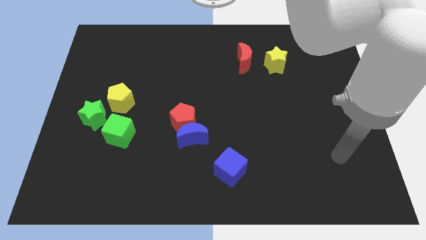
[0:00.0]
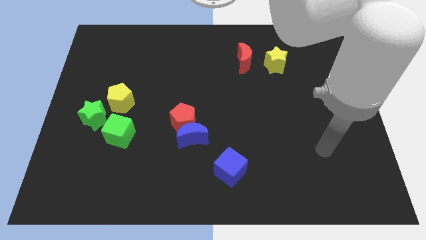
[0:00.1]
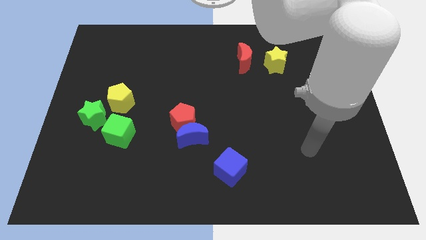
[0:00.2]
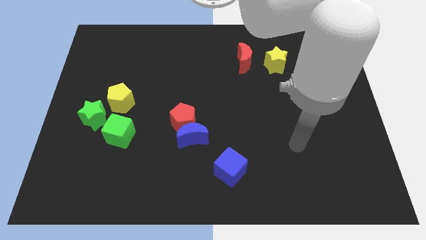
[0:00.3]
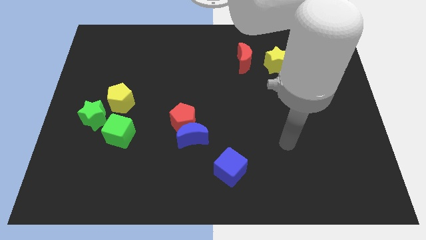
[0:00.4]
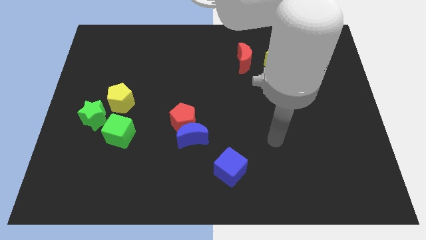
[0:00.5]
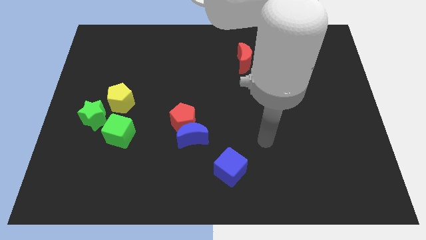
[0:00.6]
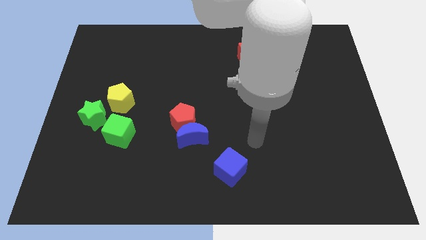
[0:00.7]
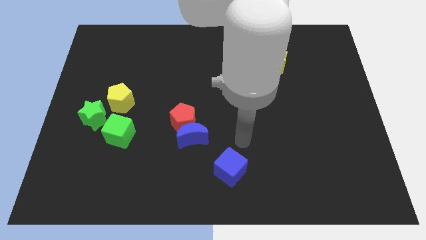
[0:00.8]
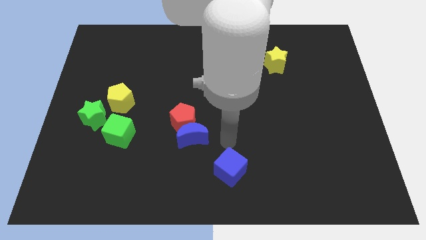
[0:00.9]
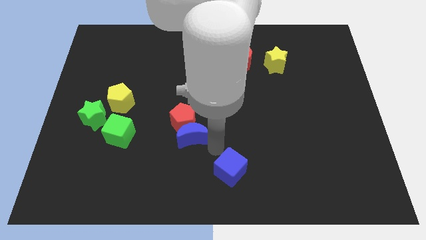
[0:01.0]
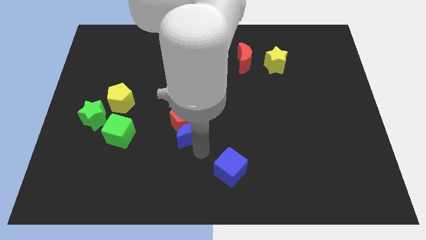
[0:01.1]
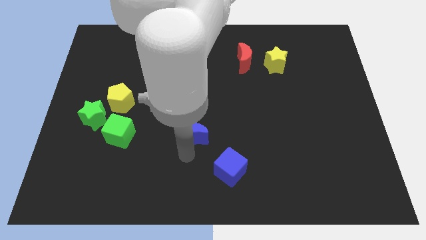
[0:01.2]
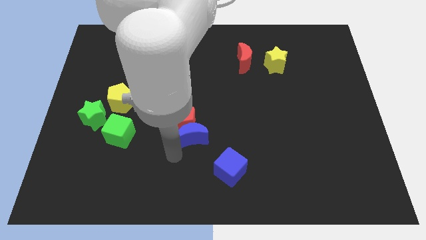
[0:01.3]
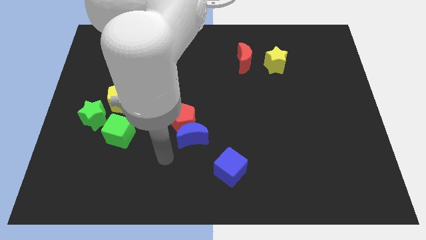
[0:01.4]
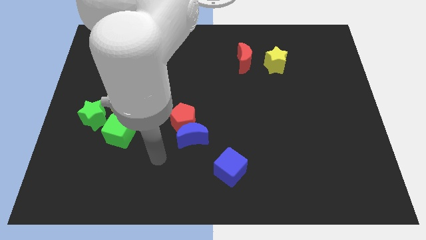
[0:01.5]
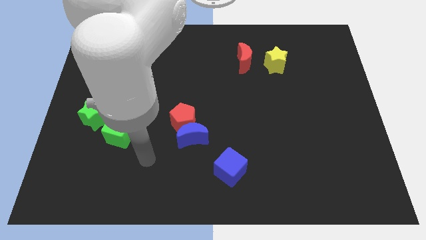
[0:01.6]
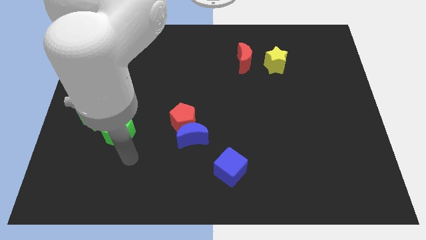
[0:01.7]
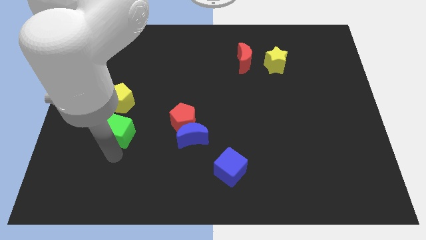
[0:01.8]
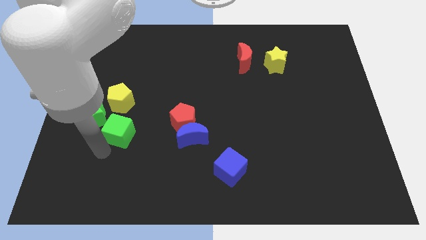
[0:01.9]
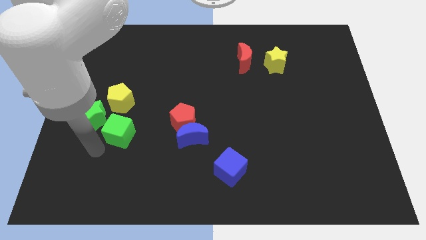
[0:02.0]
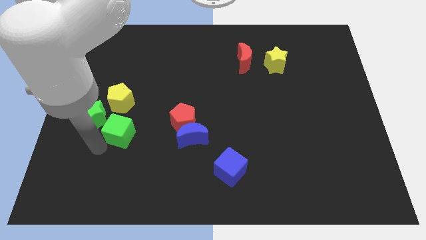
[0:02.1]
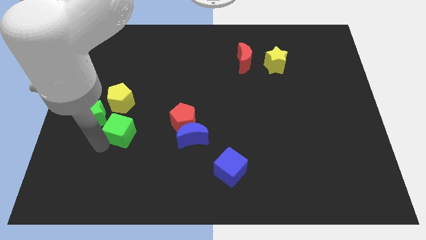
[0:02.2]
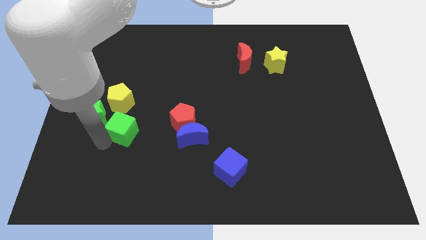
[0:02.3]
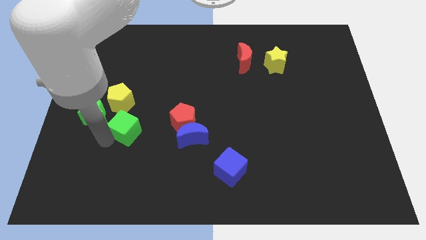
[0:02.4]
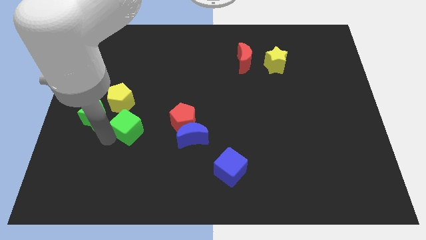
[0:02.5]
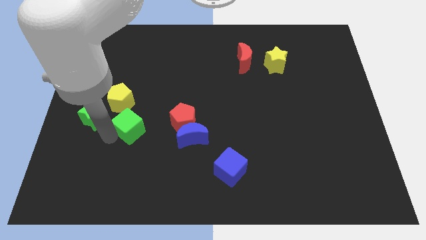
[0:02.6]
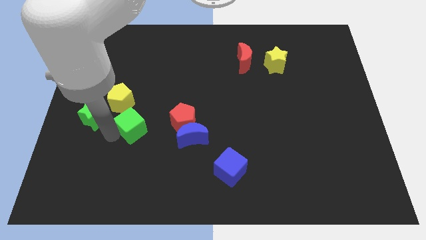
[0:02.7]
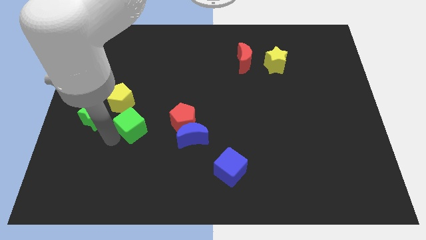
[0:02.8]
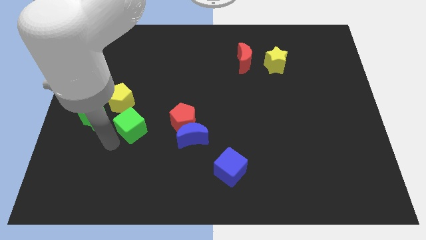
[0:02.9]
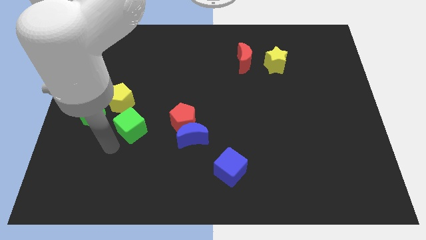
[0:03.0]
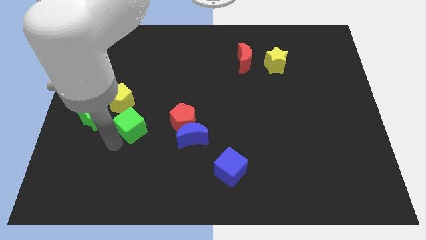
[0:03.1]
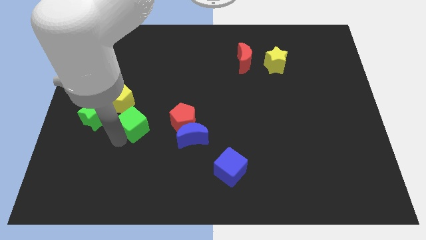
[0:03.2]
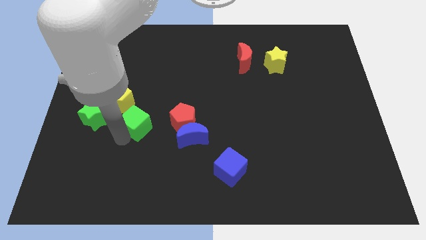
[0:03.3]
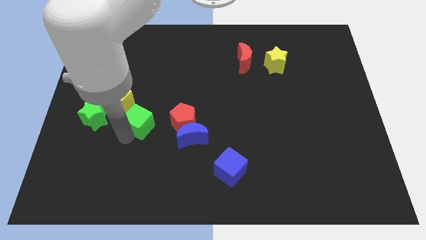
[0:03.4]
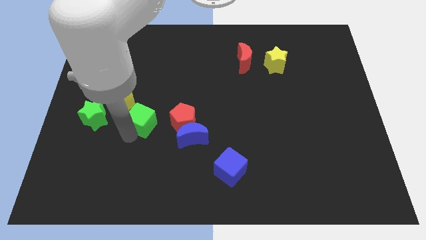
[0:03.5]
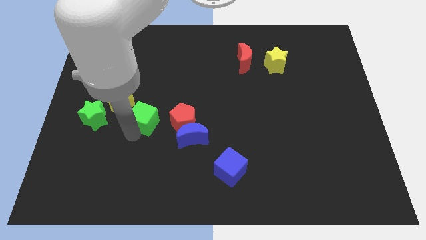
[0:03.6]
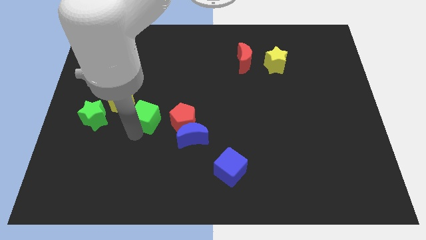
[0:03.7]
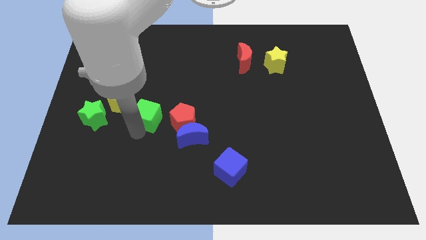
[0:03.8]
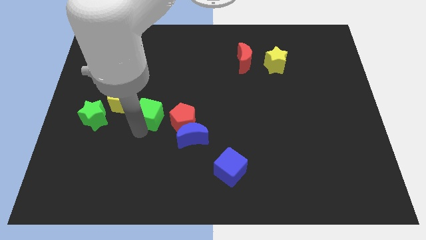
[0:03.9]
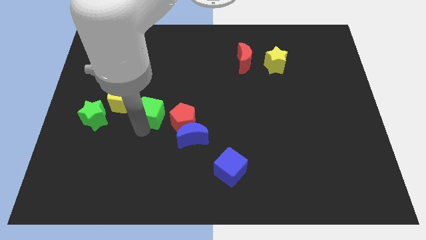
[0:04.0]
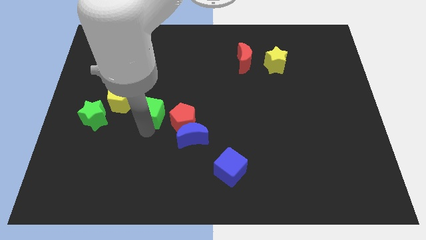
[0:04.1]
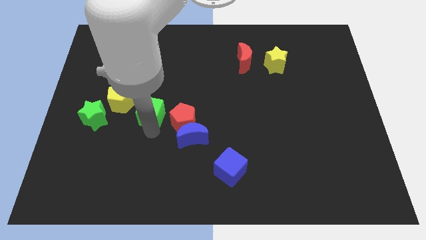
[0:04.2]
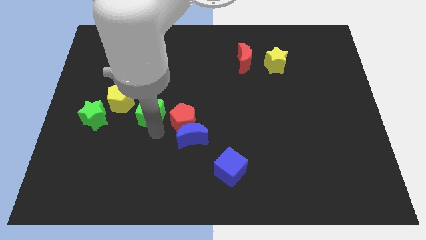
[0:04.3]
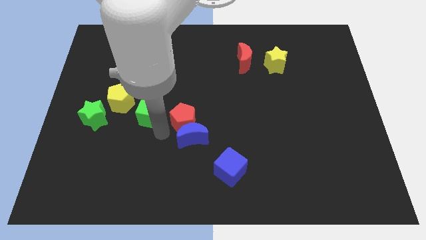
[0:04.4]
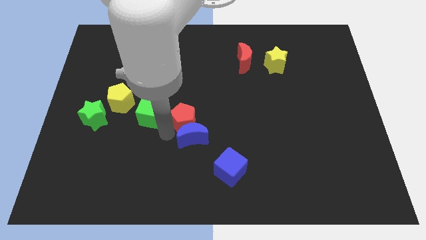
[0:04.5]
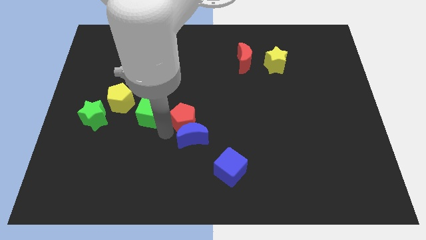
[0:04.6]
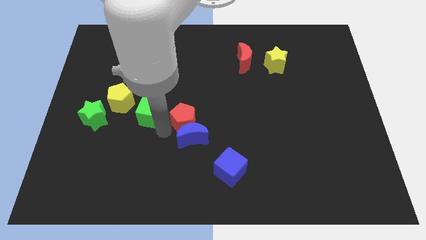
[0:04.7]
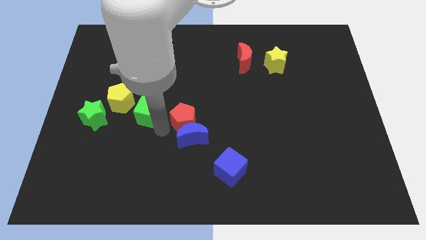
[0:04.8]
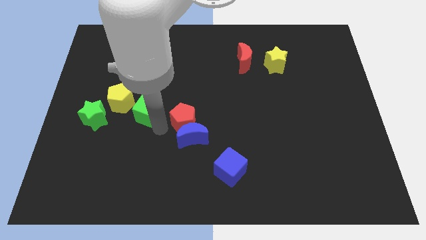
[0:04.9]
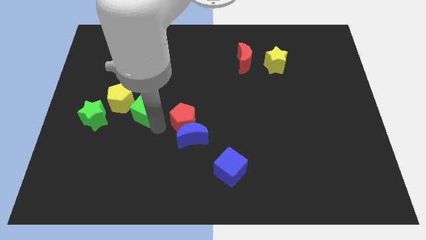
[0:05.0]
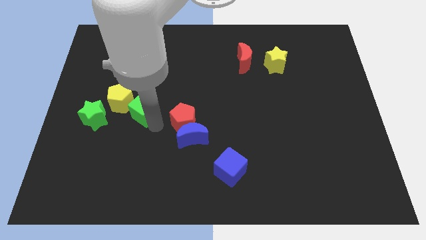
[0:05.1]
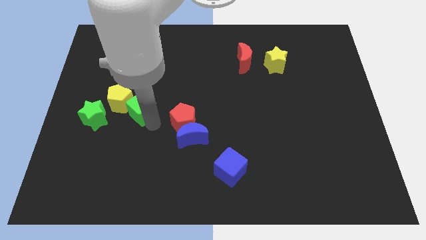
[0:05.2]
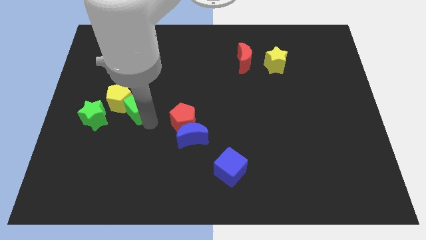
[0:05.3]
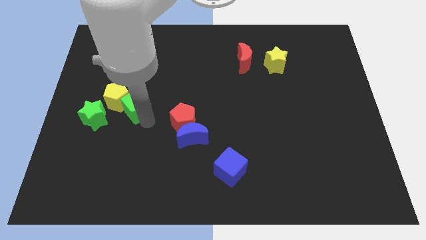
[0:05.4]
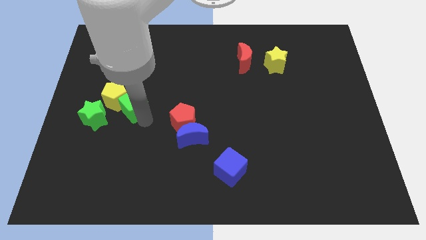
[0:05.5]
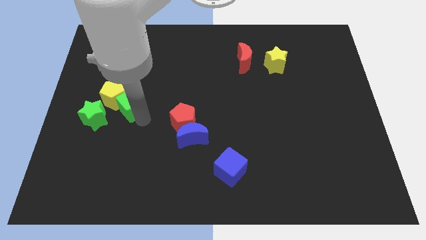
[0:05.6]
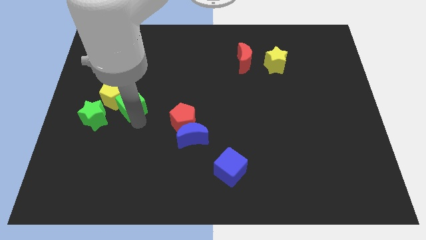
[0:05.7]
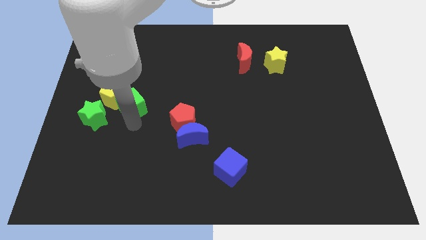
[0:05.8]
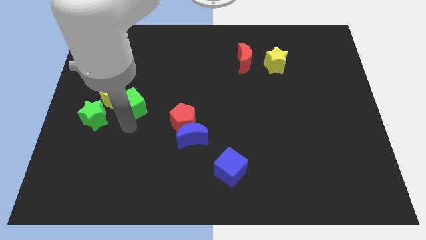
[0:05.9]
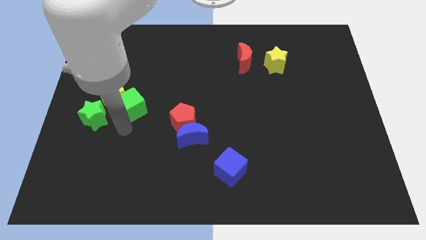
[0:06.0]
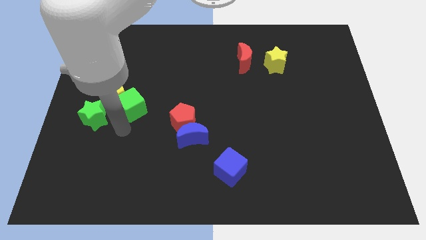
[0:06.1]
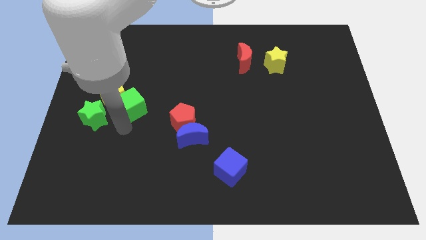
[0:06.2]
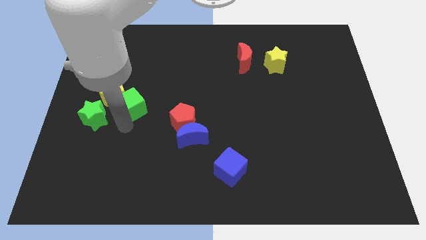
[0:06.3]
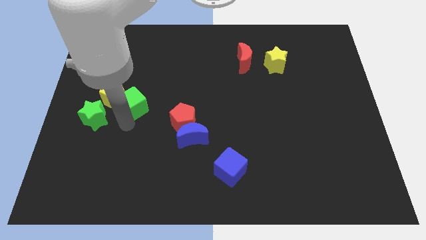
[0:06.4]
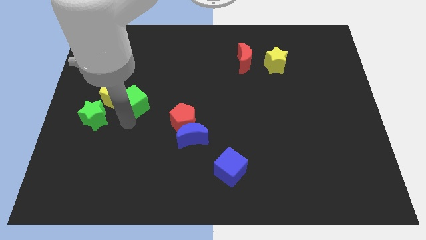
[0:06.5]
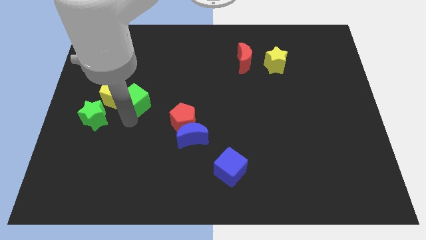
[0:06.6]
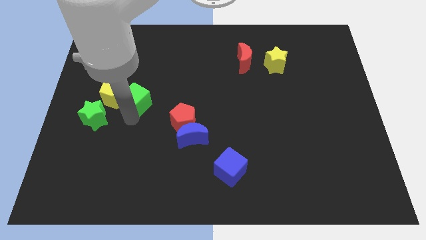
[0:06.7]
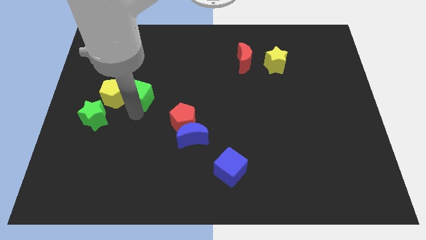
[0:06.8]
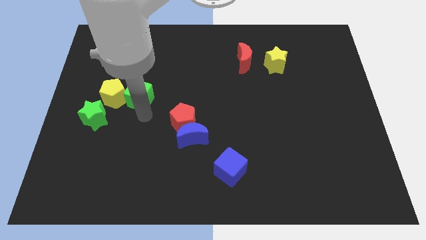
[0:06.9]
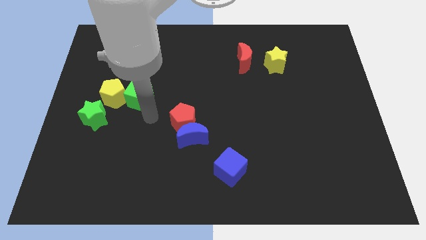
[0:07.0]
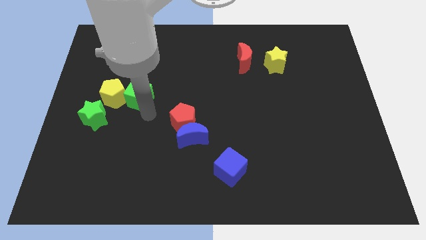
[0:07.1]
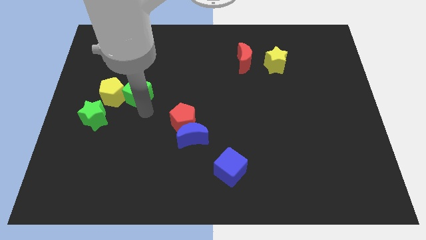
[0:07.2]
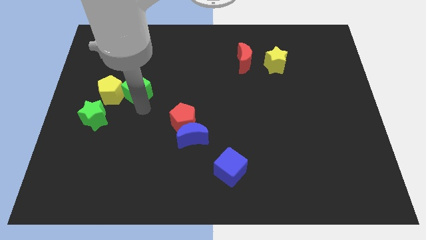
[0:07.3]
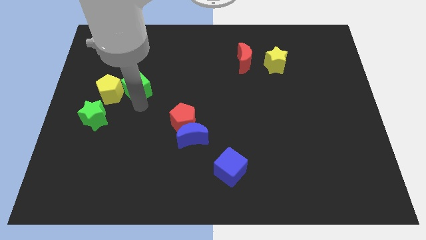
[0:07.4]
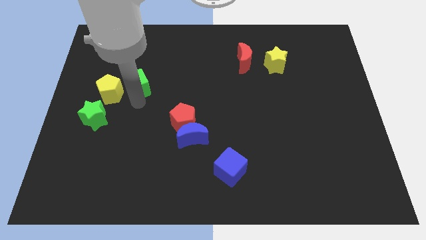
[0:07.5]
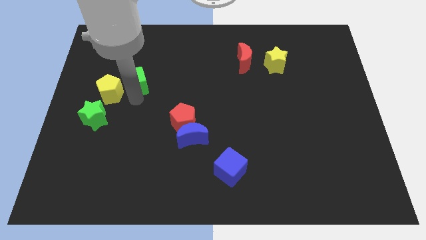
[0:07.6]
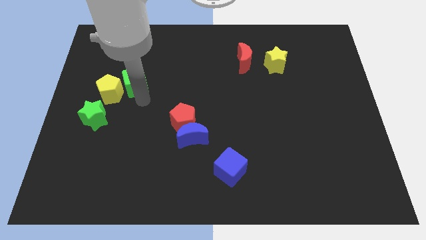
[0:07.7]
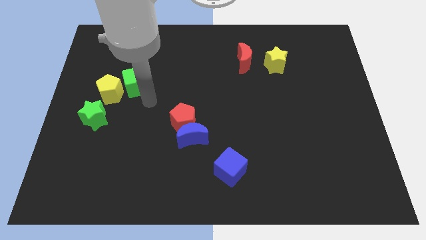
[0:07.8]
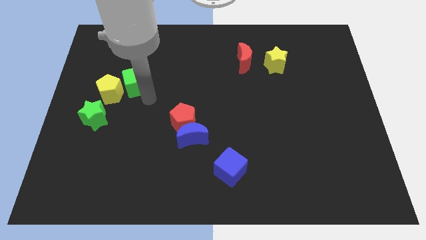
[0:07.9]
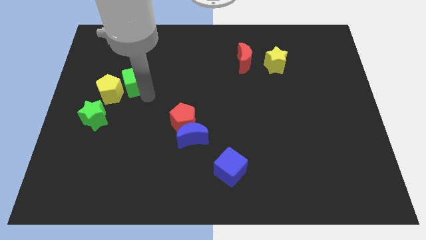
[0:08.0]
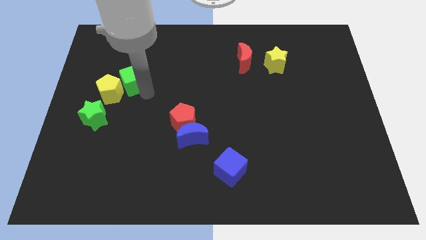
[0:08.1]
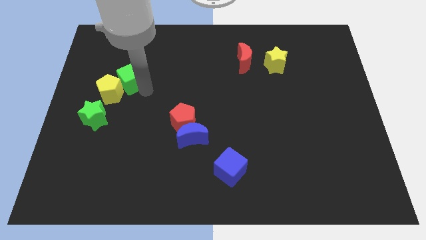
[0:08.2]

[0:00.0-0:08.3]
move the green cube above the yellow pentagon
